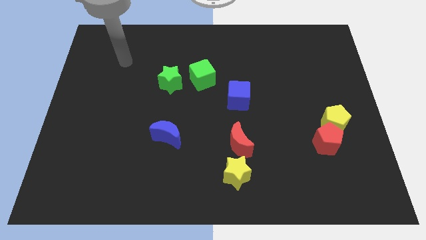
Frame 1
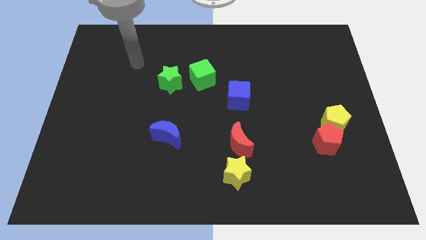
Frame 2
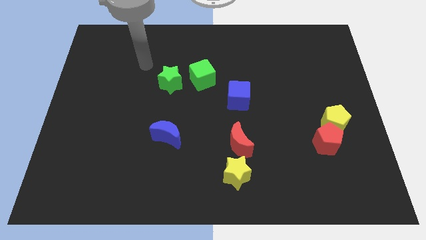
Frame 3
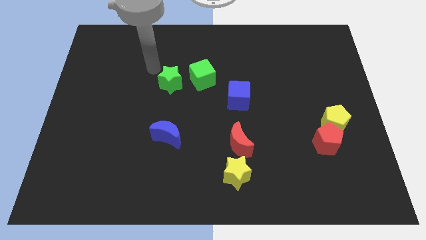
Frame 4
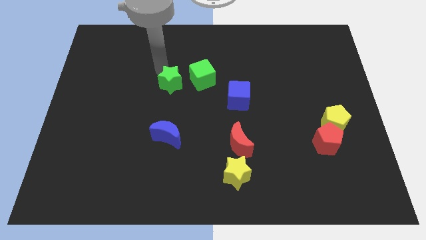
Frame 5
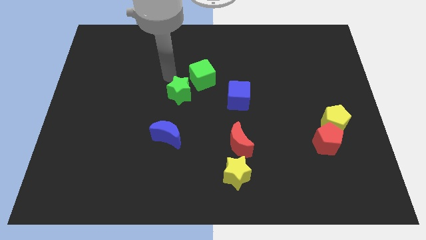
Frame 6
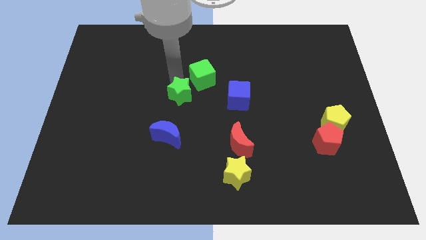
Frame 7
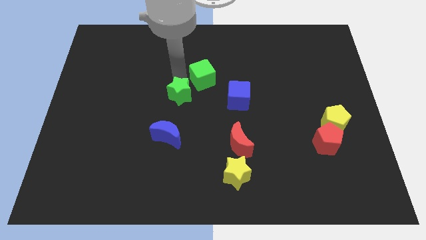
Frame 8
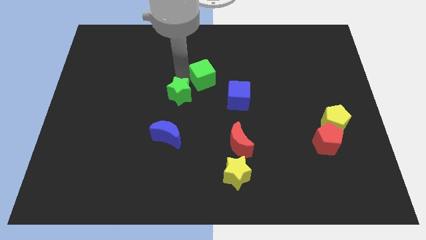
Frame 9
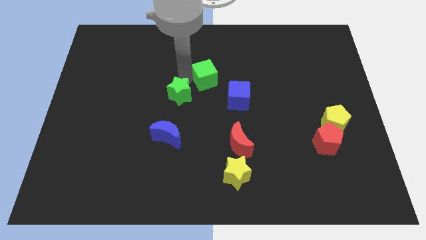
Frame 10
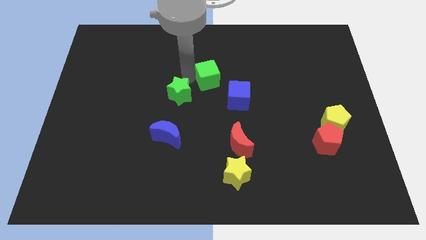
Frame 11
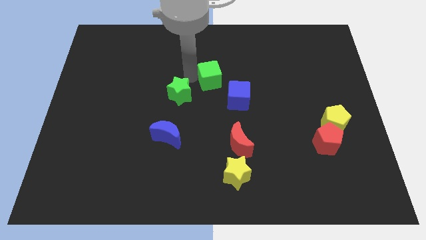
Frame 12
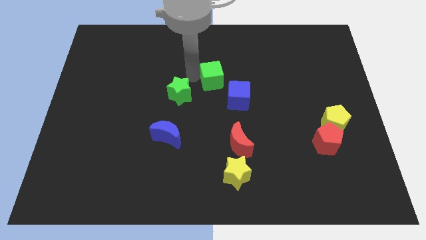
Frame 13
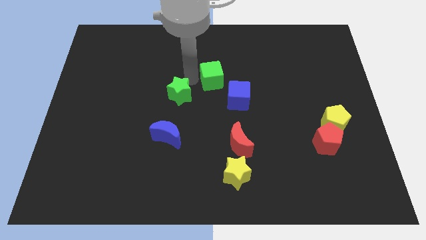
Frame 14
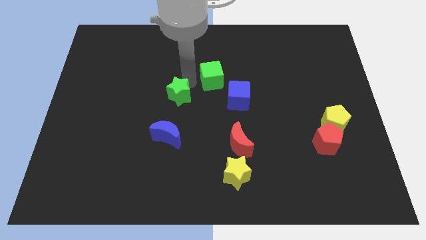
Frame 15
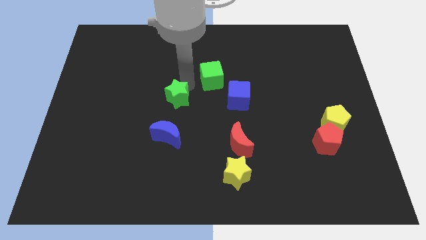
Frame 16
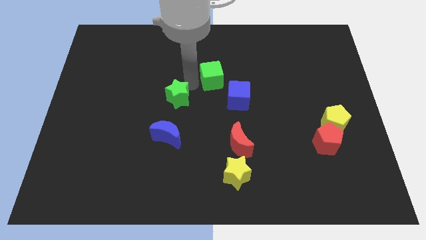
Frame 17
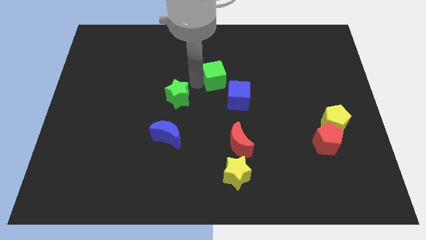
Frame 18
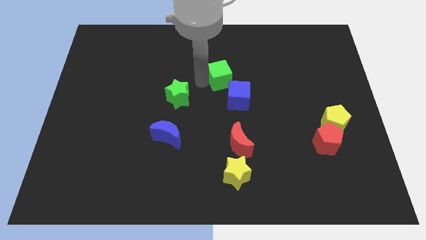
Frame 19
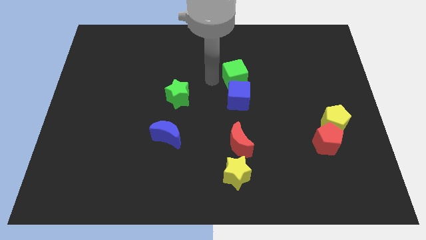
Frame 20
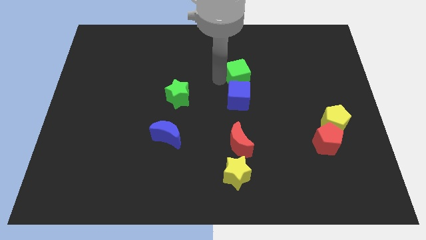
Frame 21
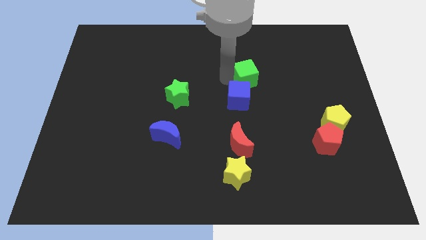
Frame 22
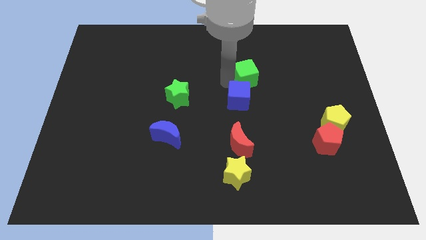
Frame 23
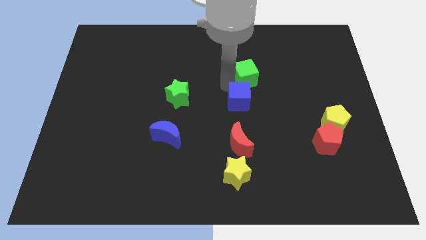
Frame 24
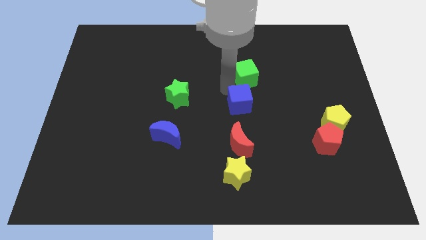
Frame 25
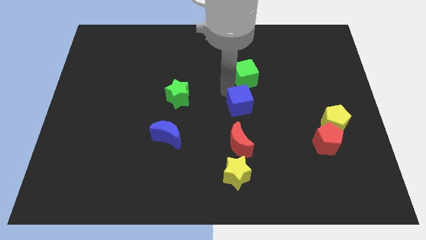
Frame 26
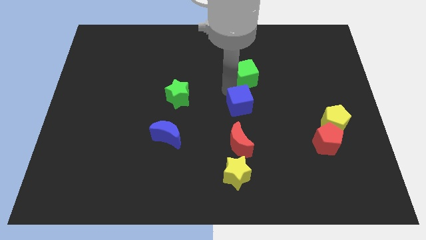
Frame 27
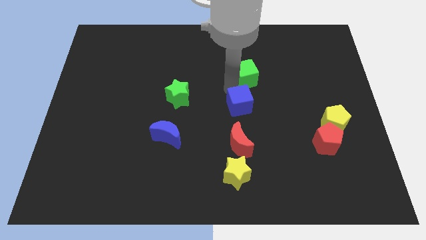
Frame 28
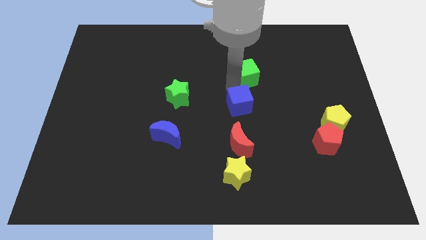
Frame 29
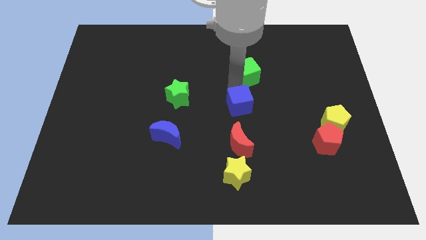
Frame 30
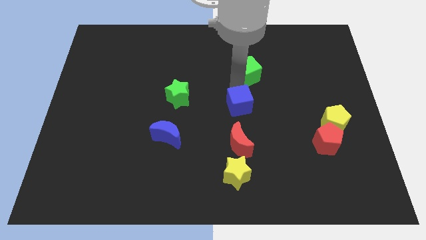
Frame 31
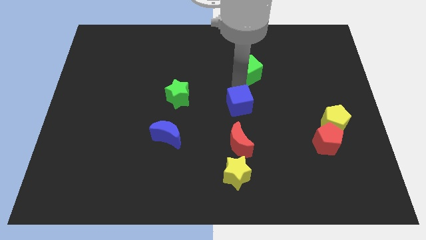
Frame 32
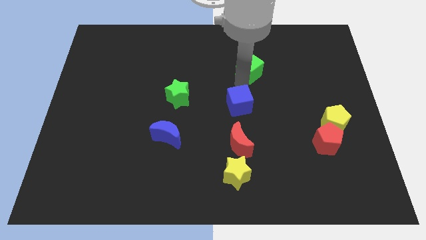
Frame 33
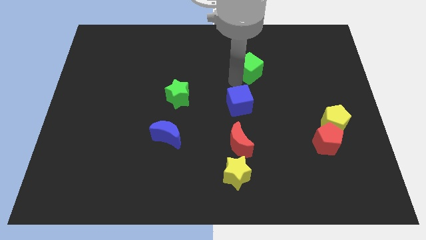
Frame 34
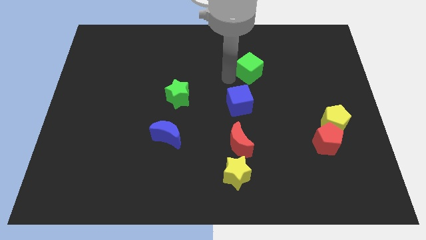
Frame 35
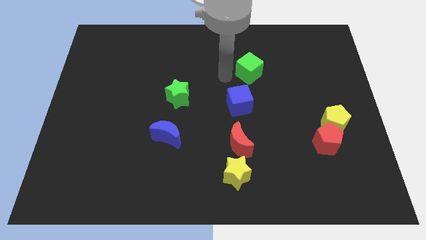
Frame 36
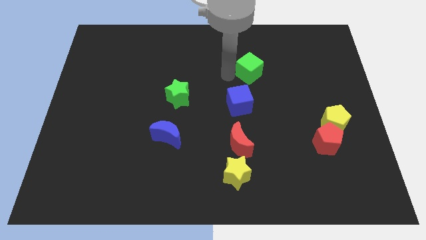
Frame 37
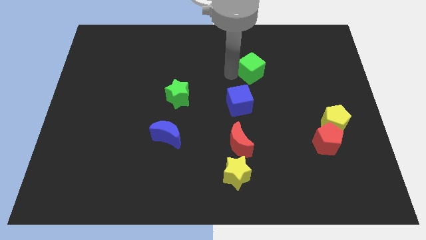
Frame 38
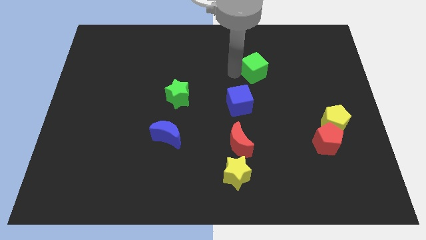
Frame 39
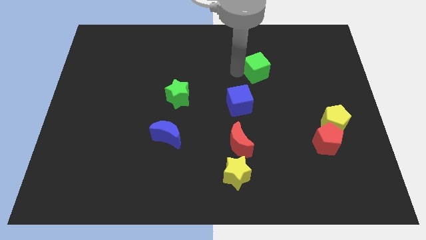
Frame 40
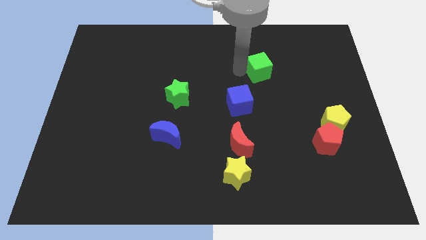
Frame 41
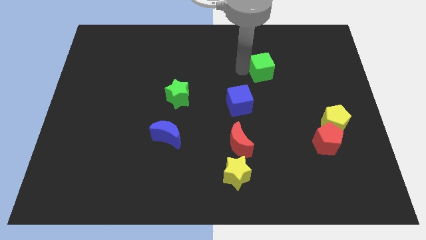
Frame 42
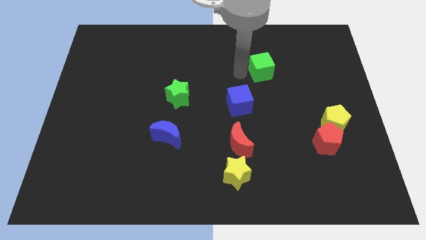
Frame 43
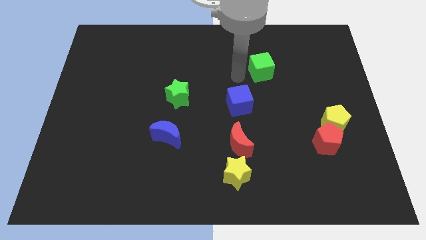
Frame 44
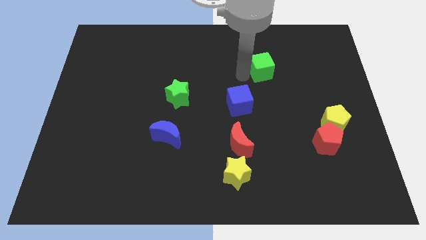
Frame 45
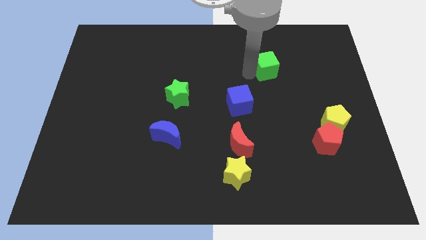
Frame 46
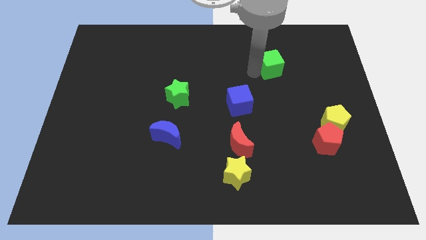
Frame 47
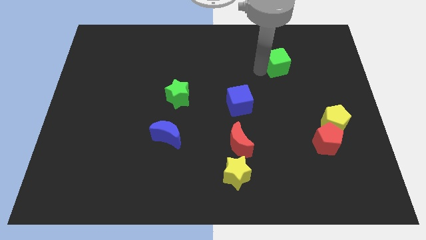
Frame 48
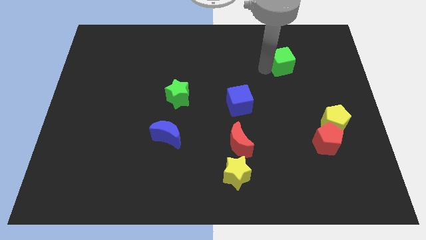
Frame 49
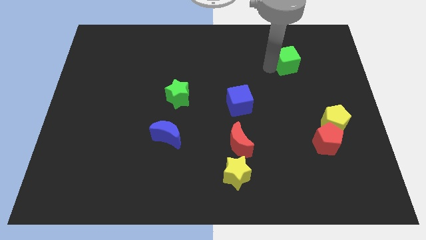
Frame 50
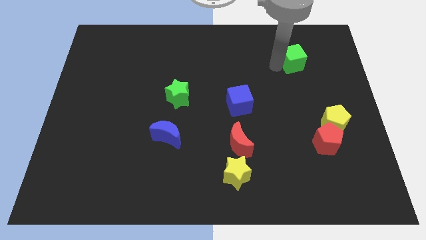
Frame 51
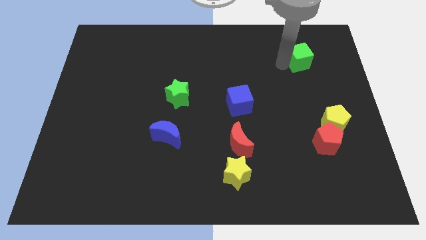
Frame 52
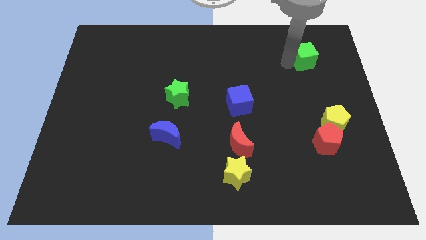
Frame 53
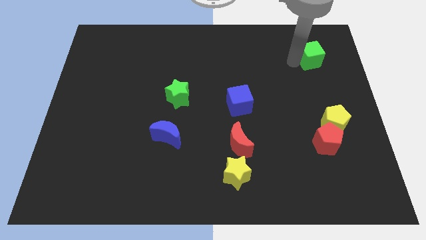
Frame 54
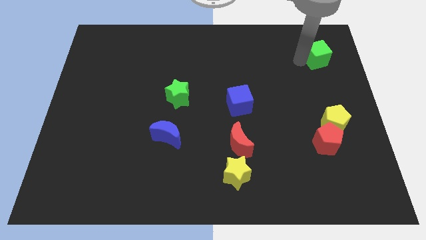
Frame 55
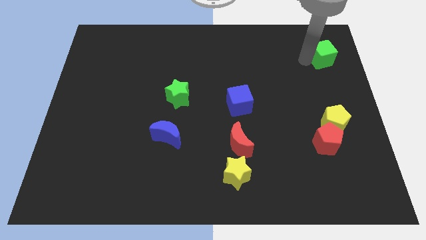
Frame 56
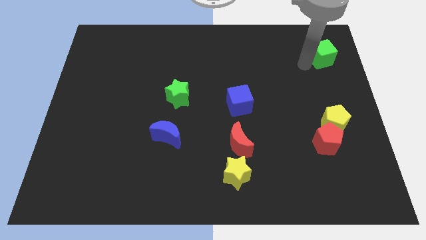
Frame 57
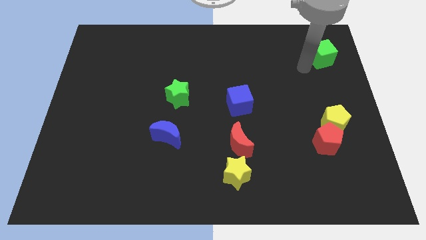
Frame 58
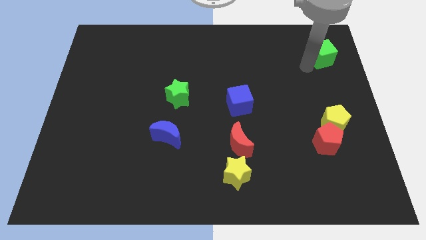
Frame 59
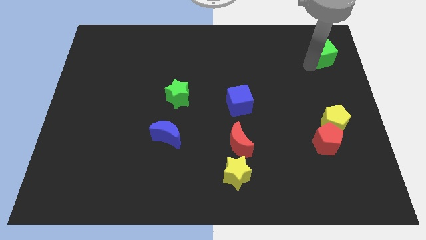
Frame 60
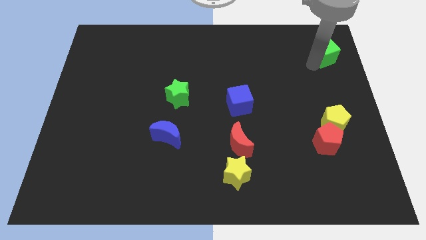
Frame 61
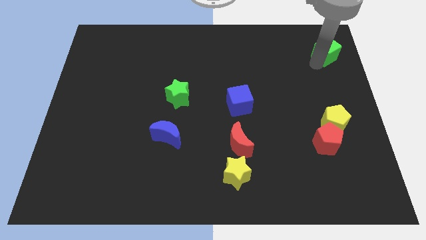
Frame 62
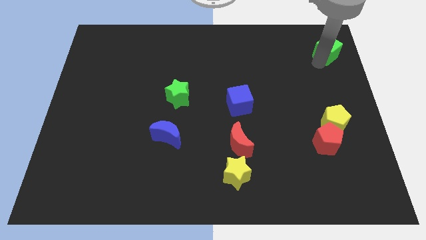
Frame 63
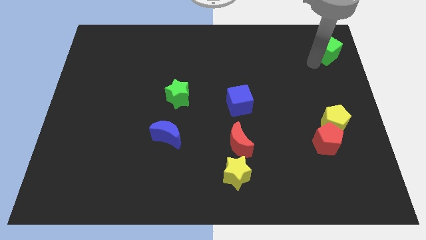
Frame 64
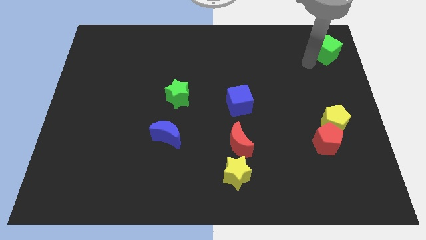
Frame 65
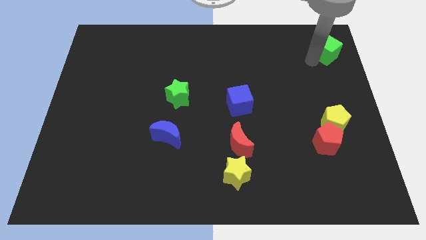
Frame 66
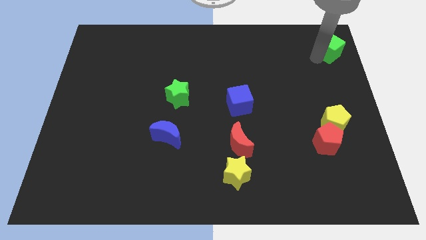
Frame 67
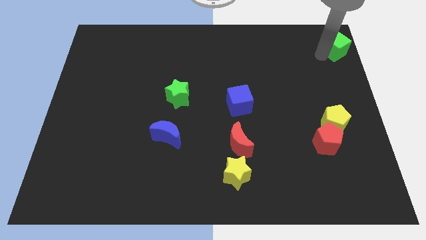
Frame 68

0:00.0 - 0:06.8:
slide the green cube to the top right

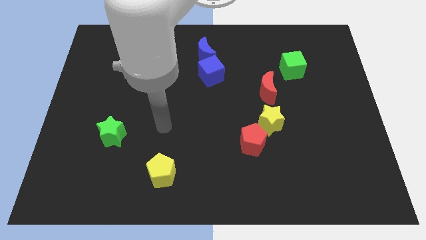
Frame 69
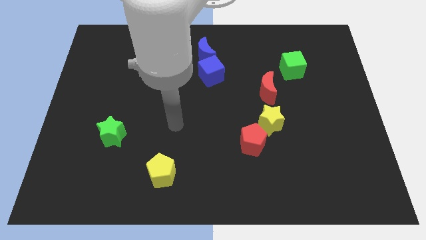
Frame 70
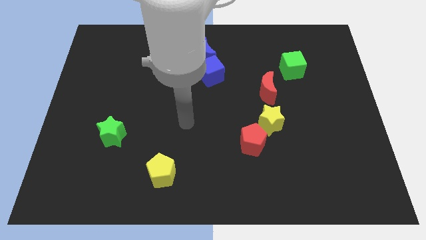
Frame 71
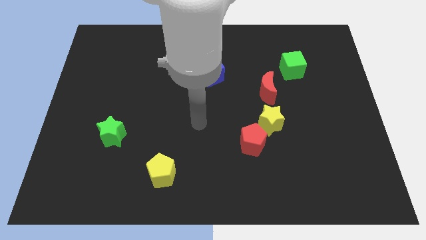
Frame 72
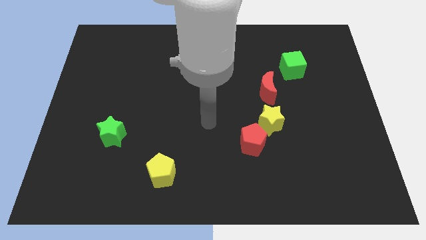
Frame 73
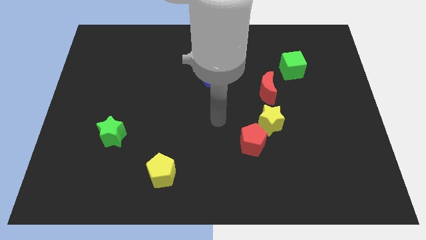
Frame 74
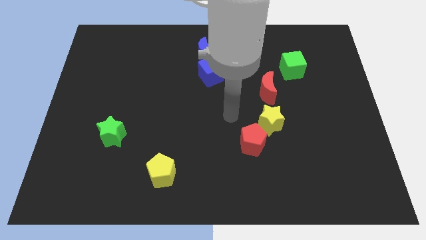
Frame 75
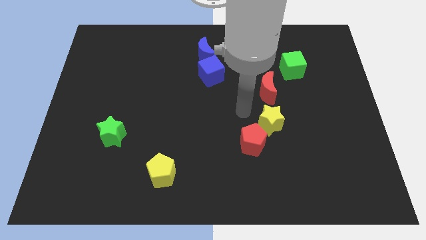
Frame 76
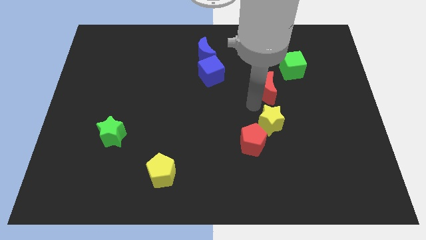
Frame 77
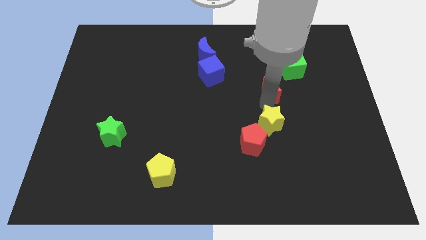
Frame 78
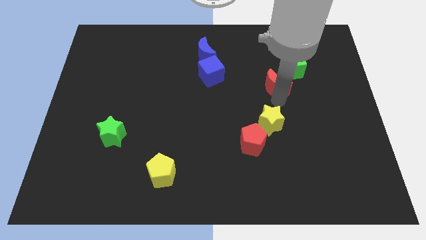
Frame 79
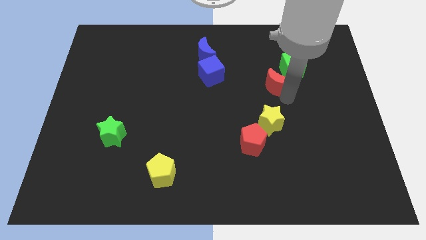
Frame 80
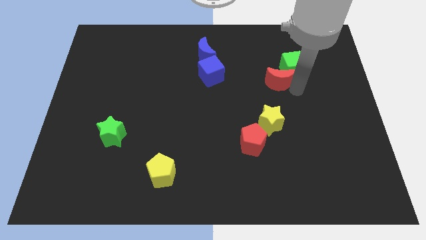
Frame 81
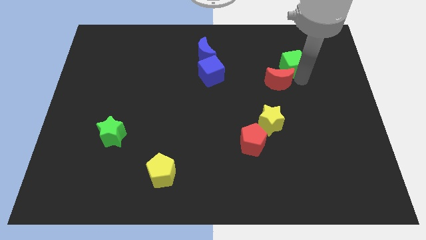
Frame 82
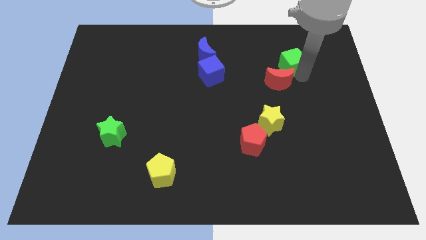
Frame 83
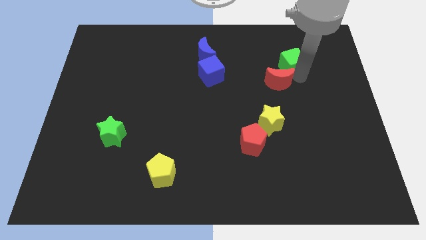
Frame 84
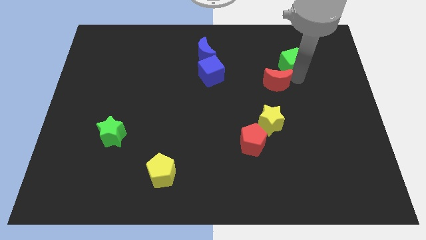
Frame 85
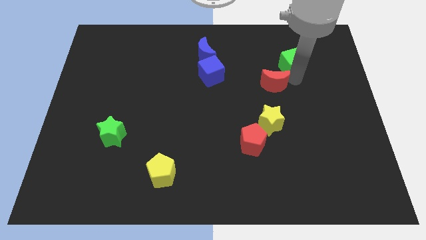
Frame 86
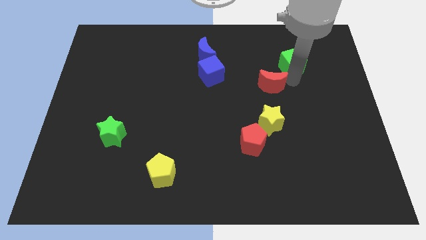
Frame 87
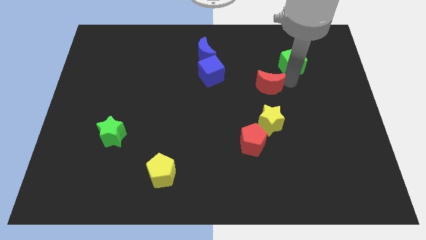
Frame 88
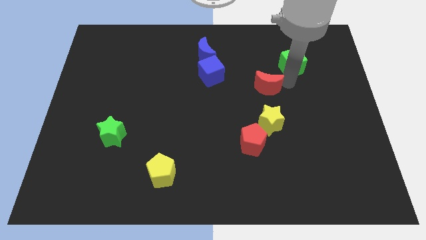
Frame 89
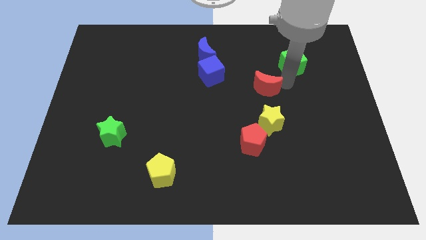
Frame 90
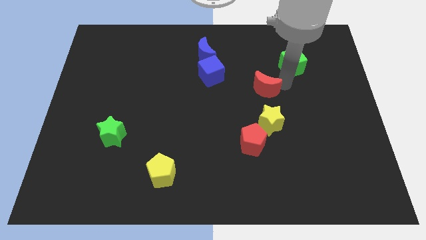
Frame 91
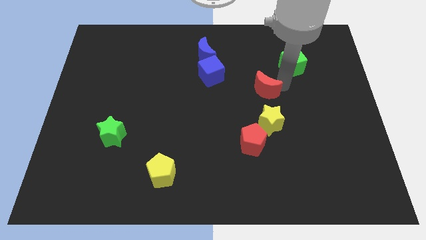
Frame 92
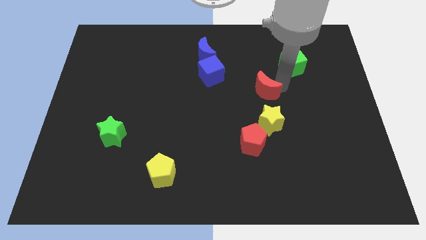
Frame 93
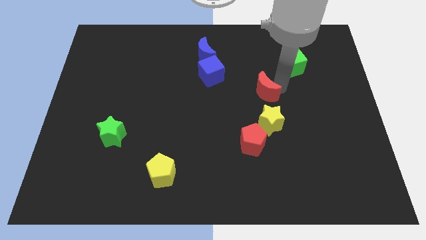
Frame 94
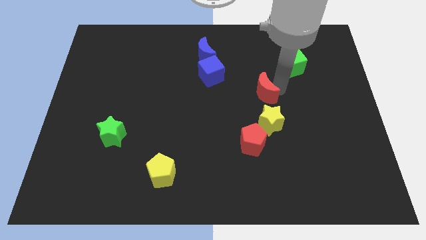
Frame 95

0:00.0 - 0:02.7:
put the red moon to the middle of the board
